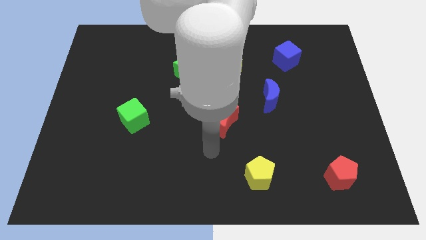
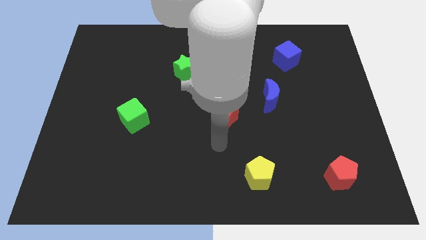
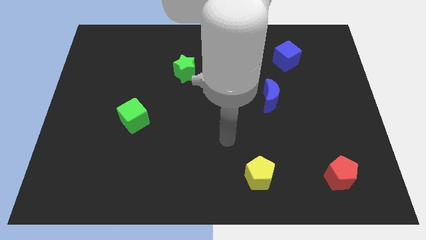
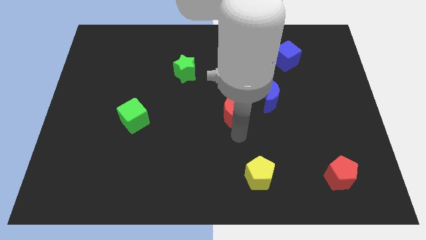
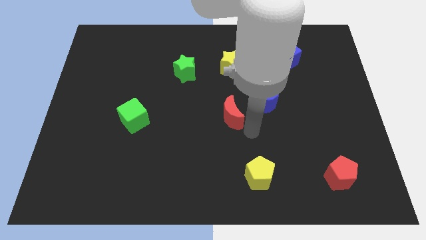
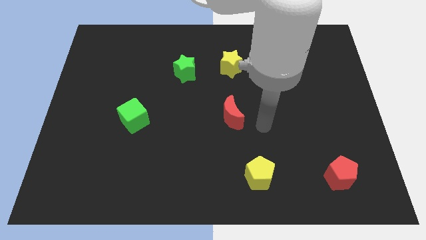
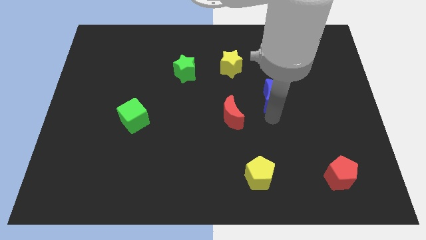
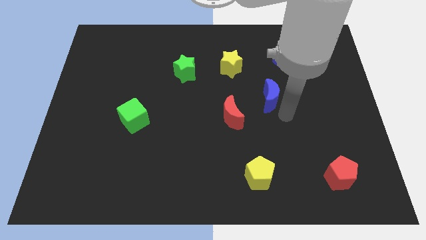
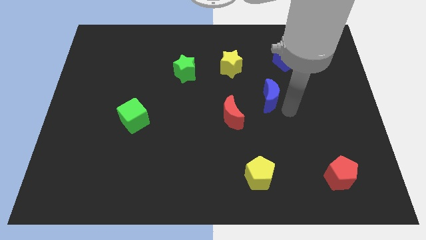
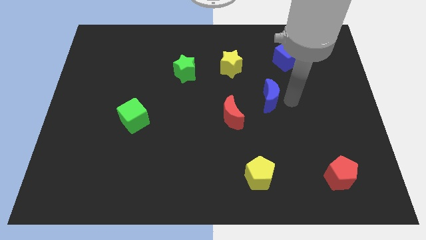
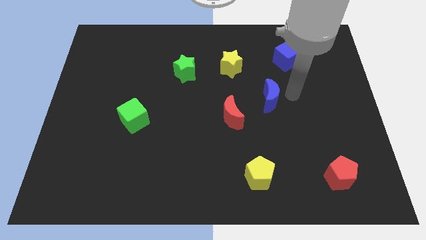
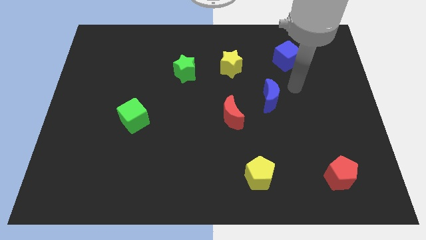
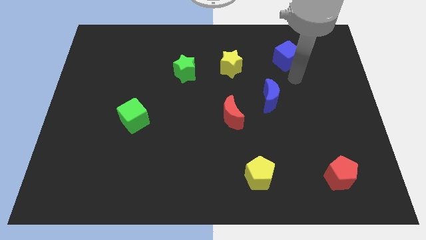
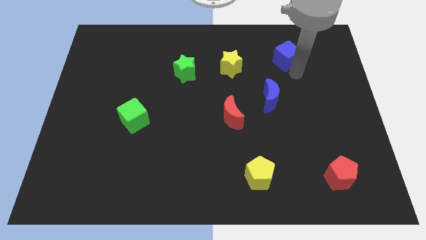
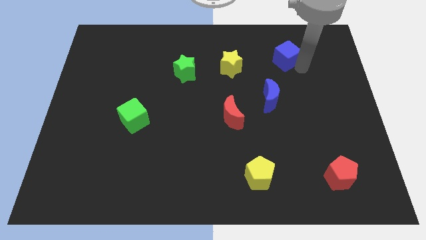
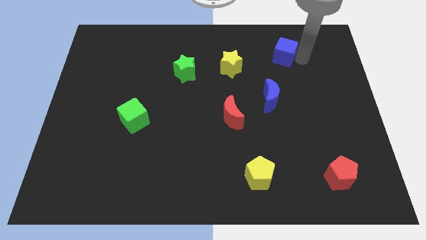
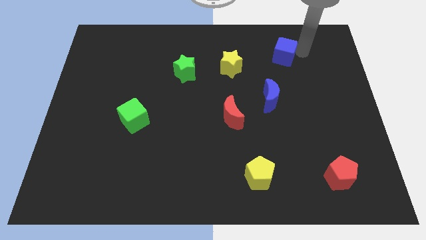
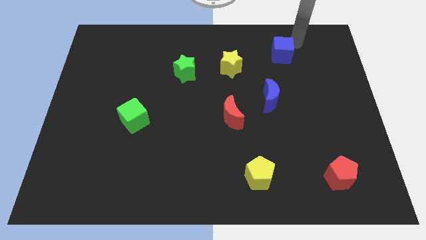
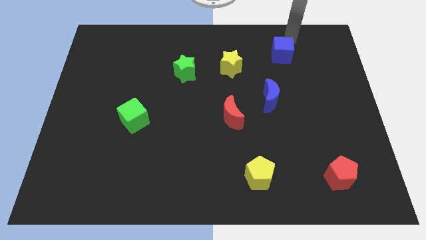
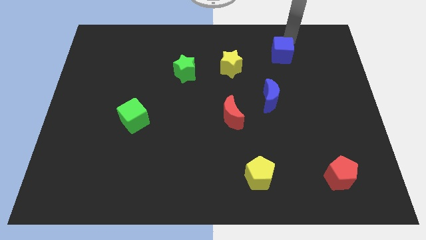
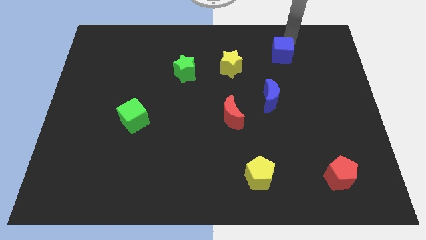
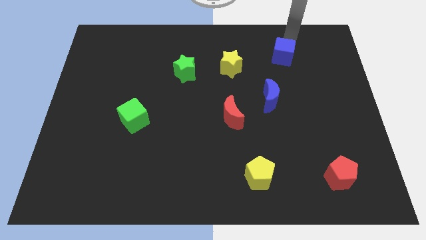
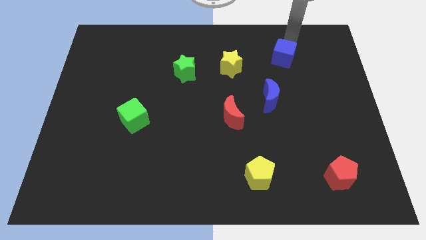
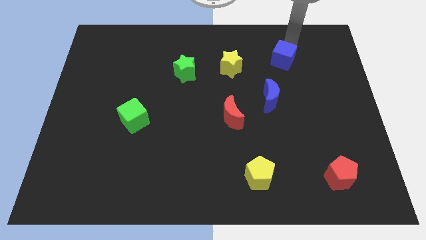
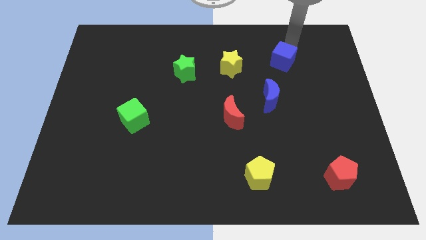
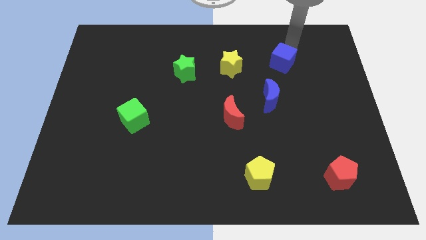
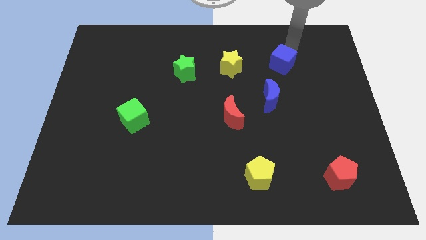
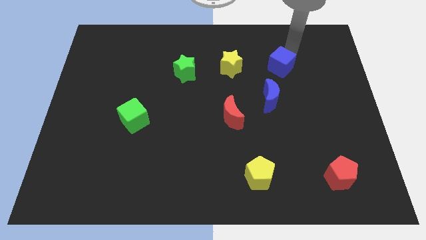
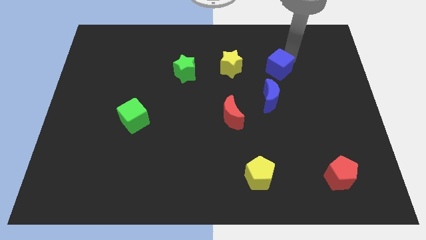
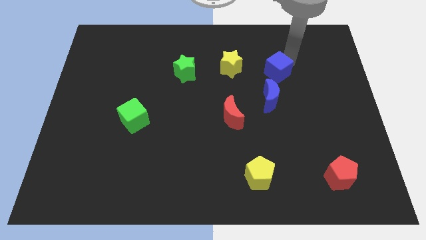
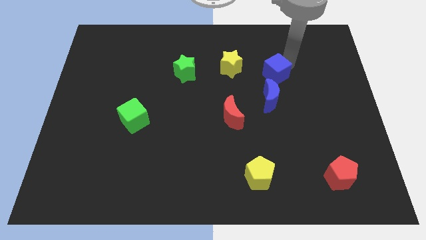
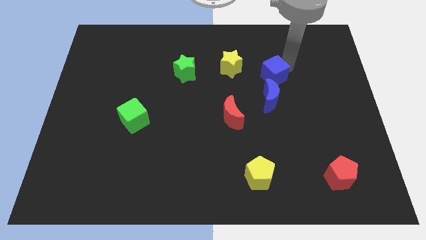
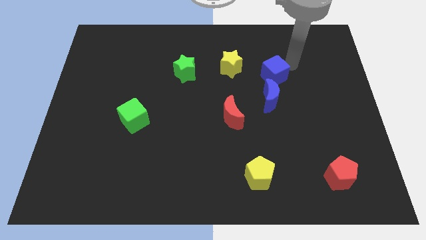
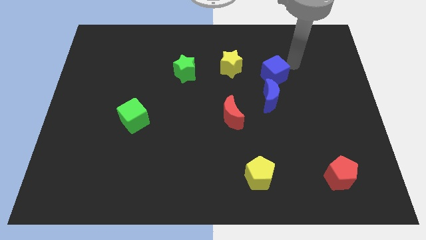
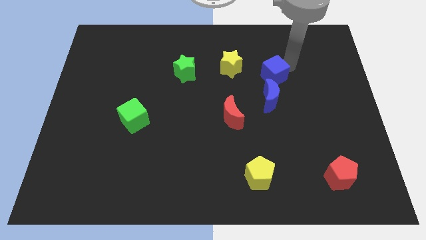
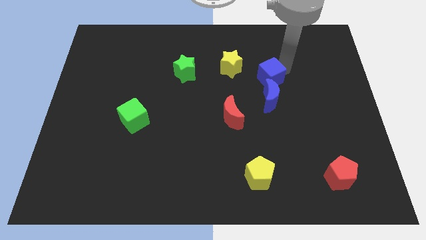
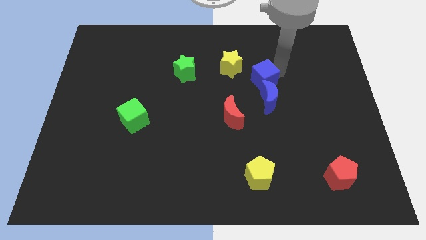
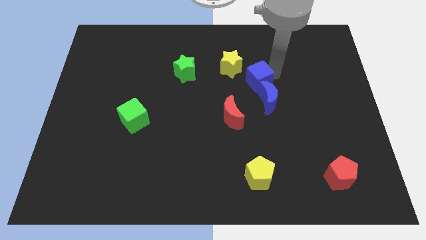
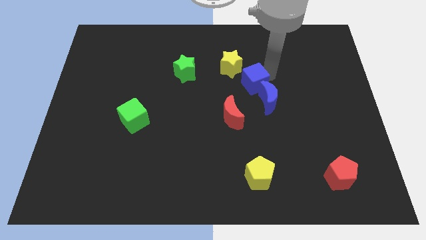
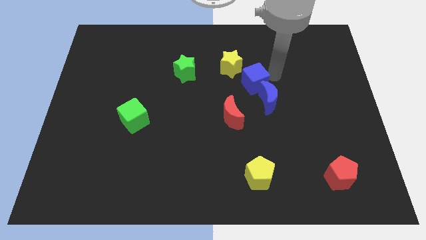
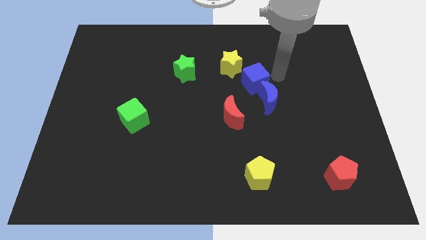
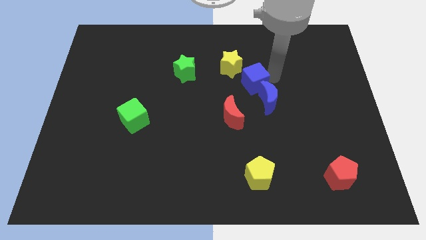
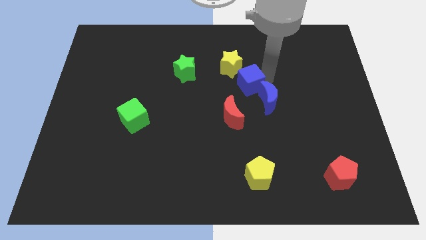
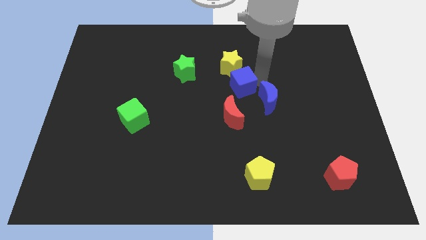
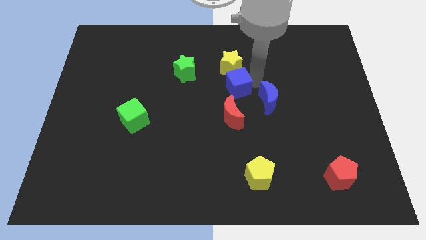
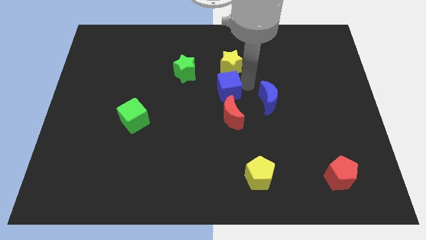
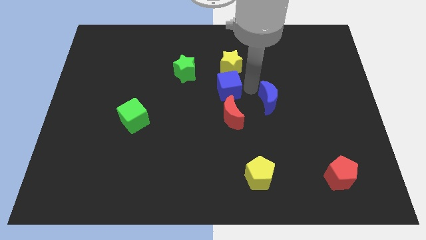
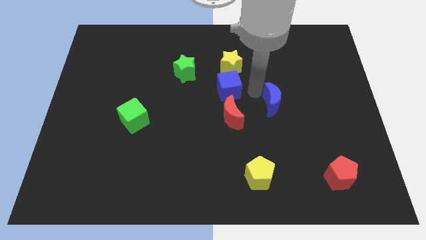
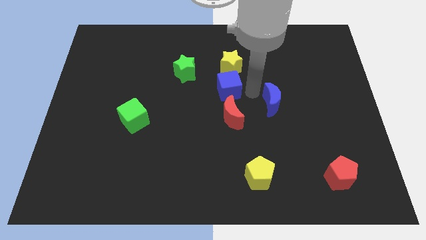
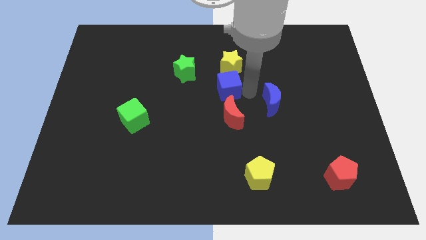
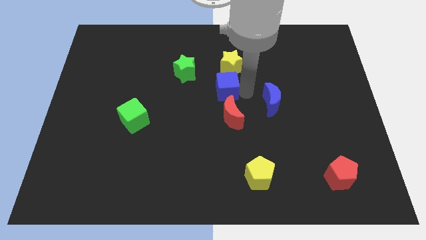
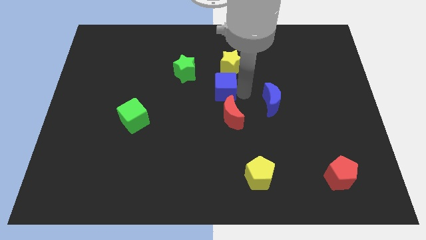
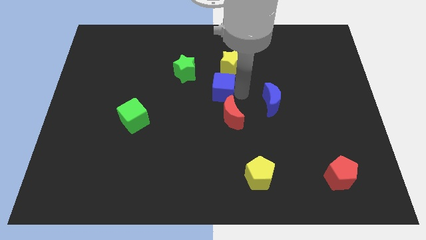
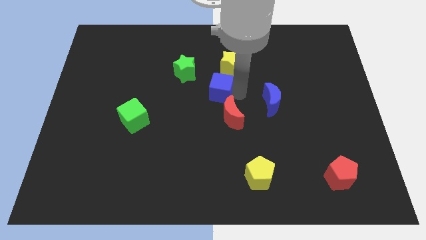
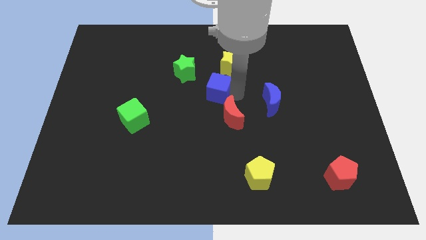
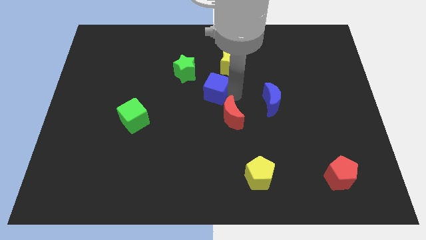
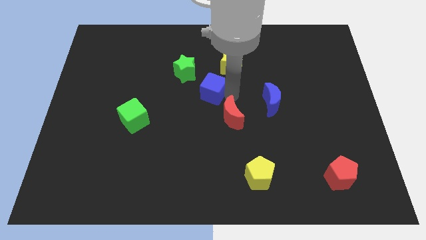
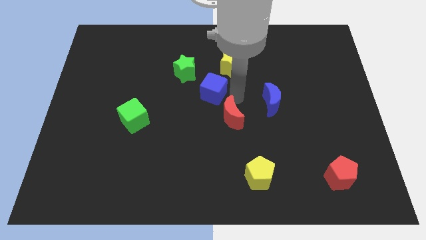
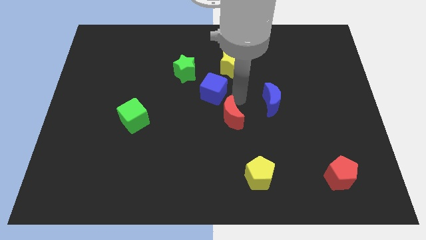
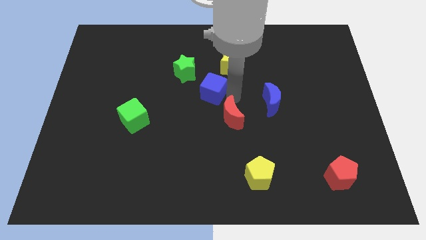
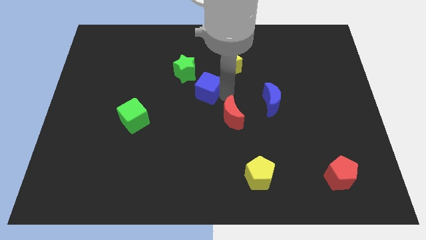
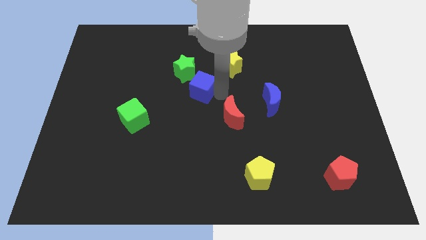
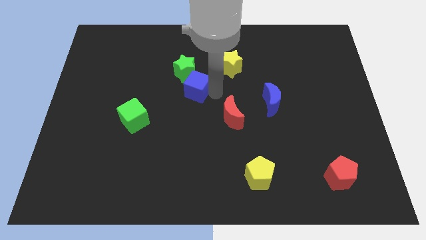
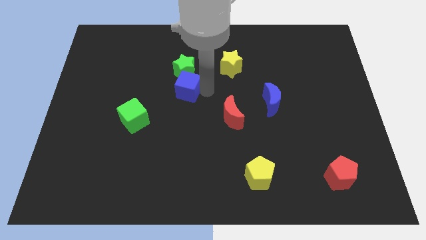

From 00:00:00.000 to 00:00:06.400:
move the blue cube diagonally down and to the left of the green star
